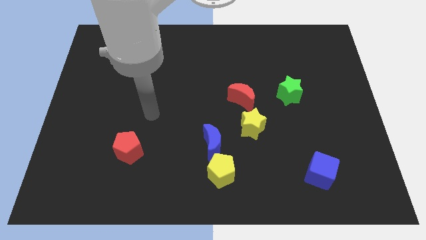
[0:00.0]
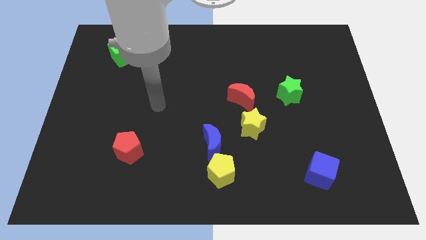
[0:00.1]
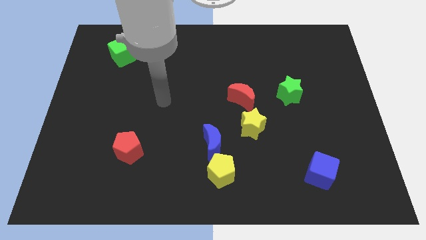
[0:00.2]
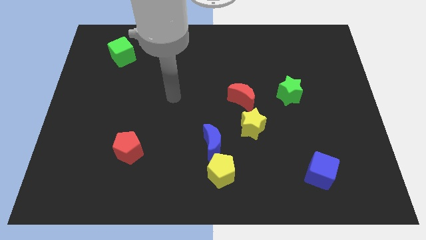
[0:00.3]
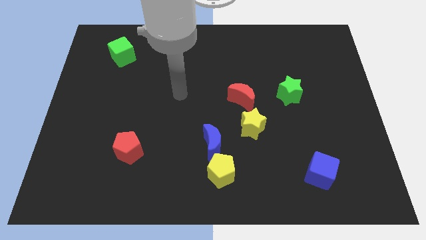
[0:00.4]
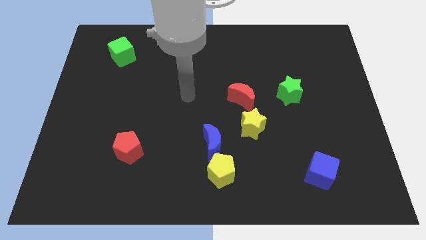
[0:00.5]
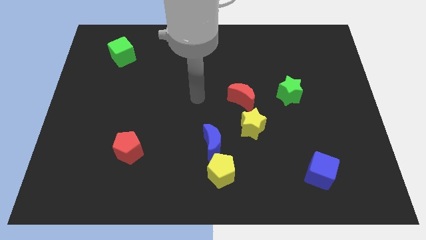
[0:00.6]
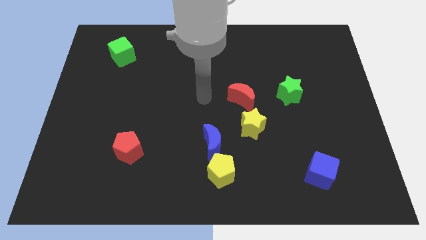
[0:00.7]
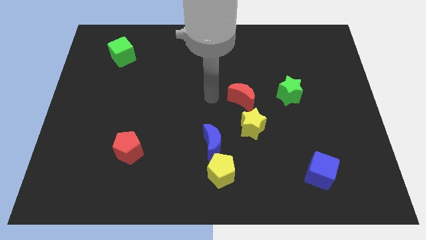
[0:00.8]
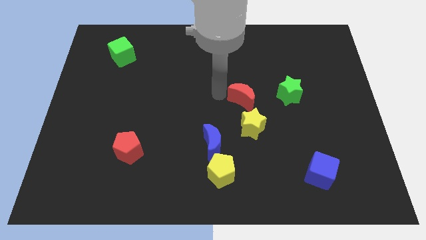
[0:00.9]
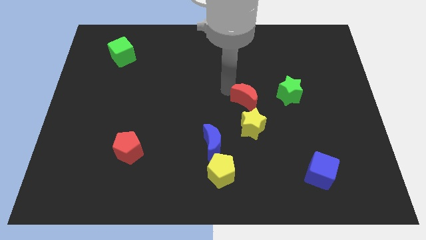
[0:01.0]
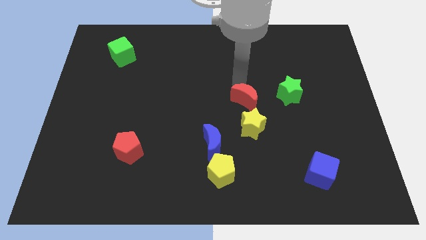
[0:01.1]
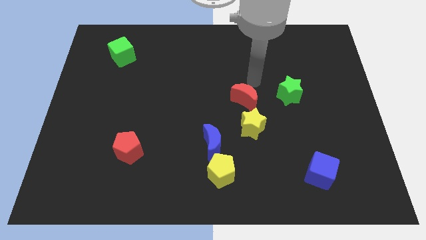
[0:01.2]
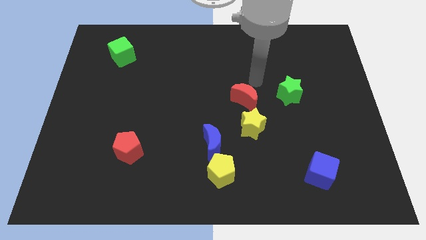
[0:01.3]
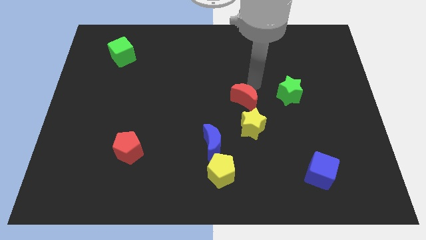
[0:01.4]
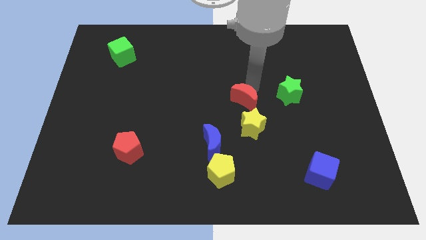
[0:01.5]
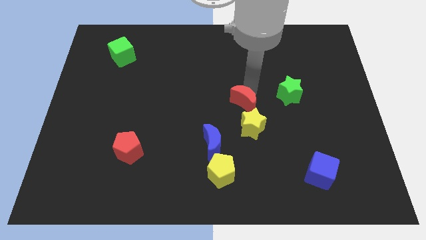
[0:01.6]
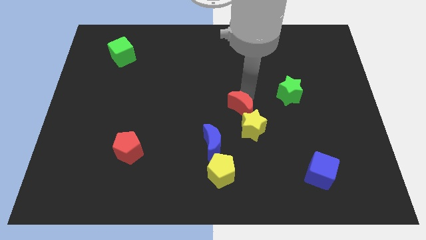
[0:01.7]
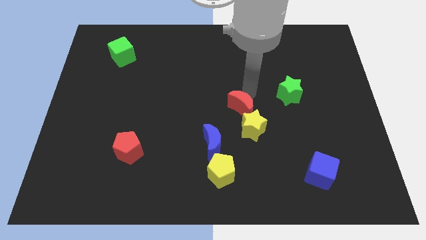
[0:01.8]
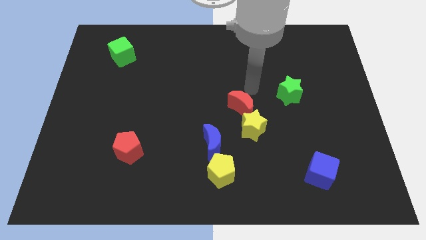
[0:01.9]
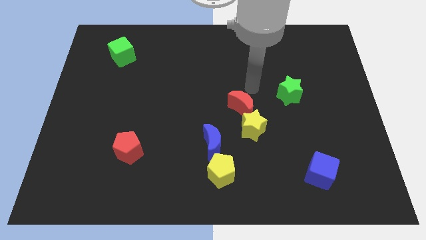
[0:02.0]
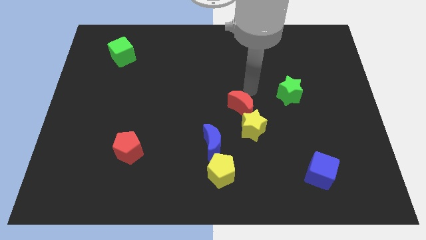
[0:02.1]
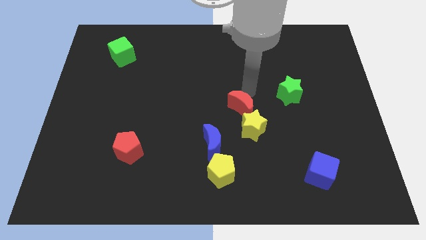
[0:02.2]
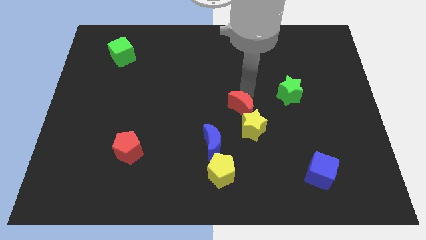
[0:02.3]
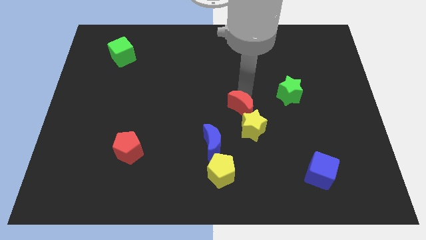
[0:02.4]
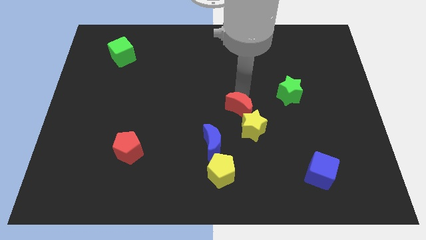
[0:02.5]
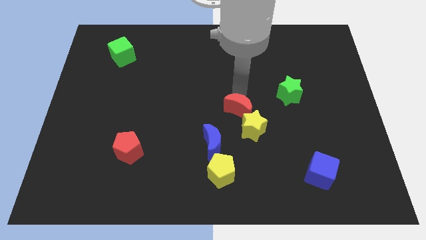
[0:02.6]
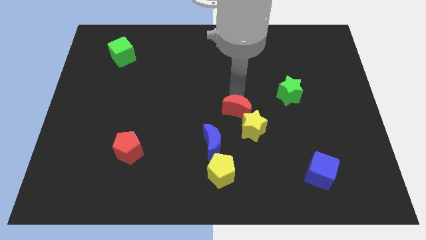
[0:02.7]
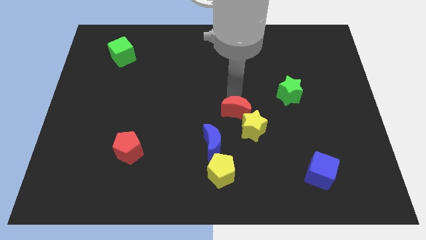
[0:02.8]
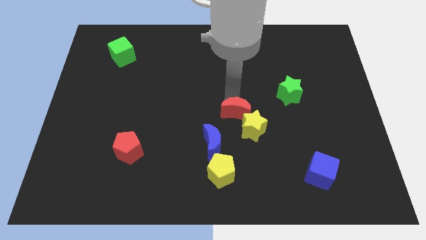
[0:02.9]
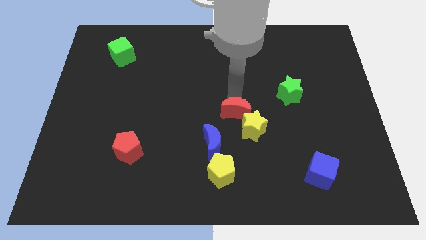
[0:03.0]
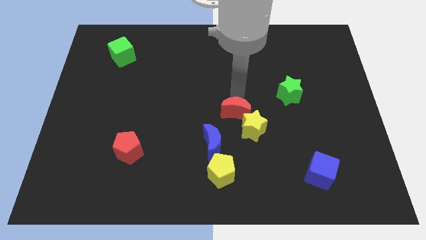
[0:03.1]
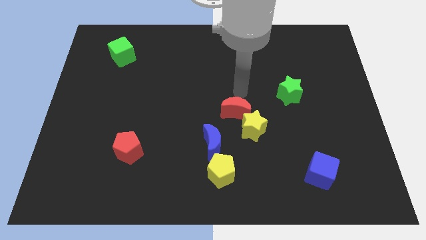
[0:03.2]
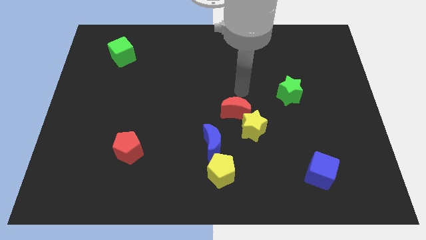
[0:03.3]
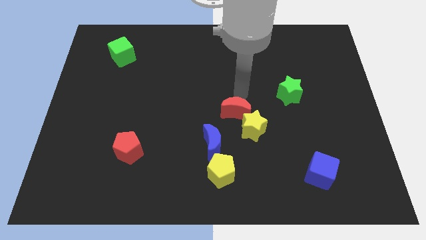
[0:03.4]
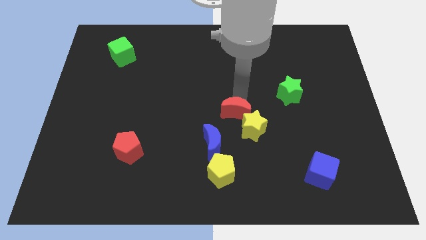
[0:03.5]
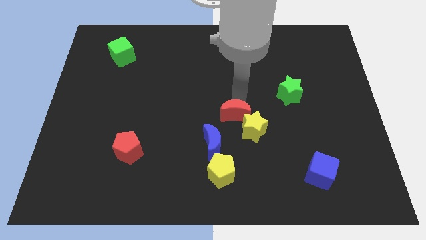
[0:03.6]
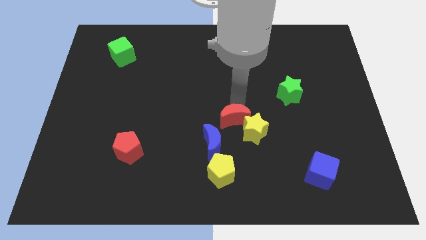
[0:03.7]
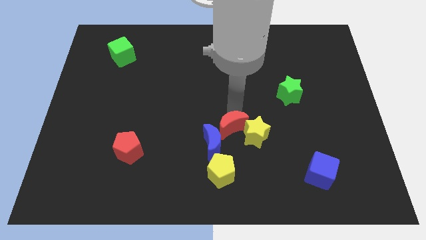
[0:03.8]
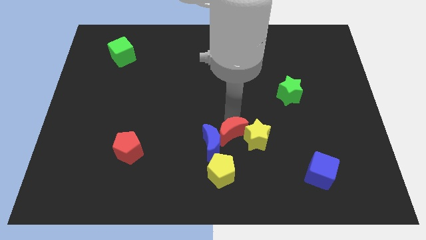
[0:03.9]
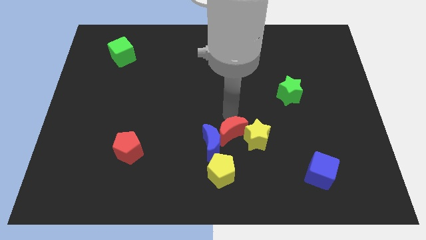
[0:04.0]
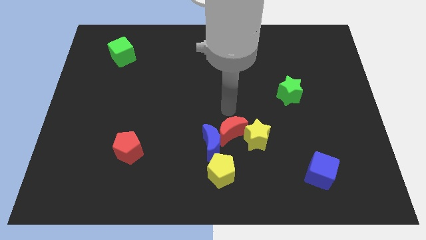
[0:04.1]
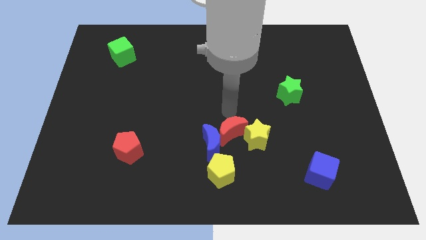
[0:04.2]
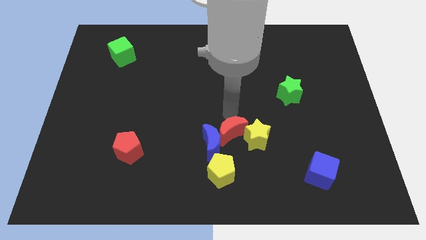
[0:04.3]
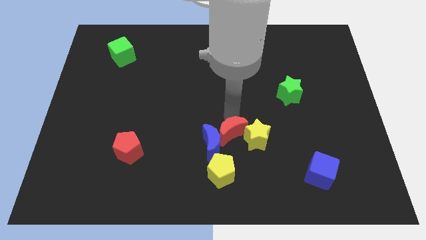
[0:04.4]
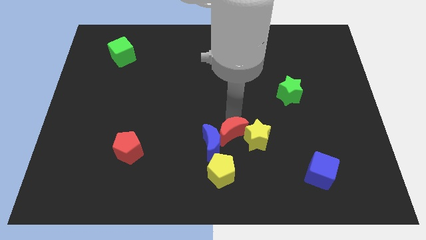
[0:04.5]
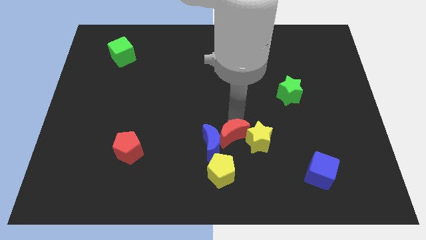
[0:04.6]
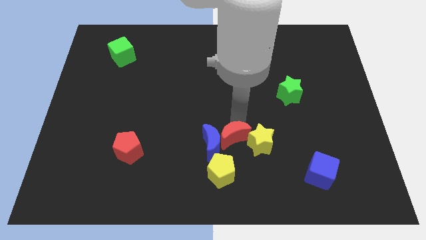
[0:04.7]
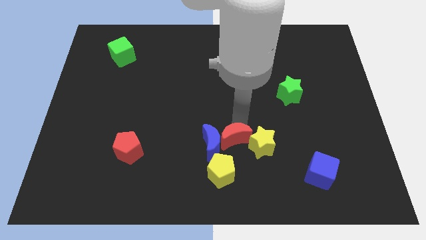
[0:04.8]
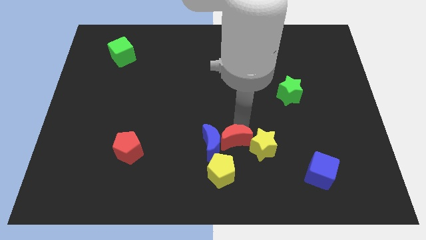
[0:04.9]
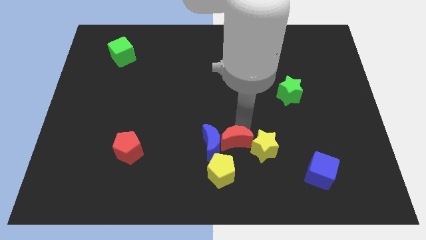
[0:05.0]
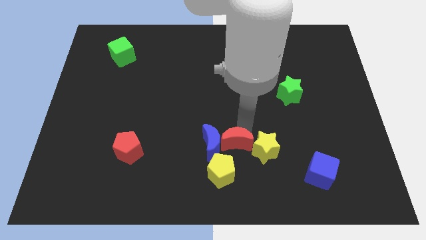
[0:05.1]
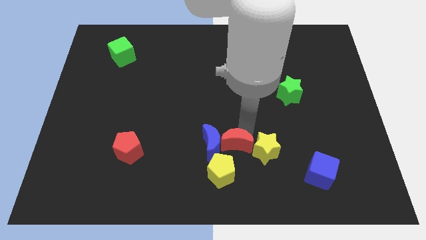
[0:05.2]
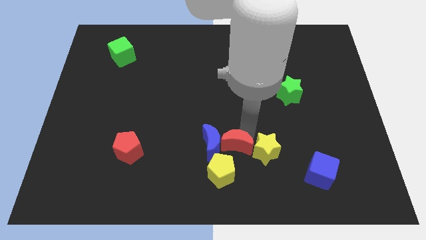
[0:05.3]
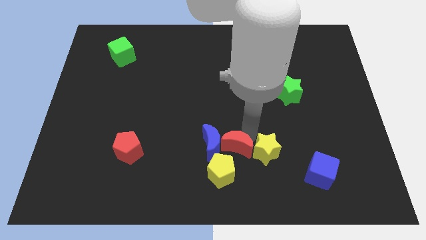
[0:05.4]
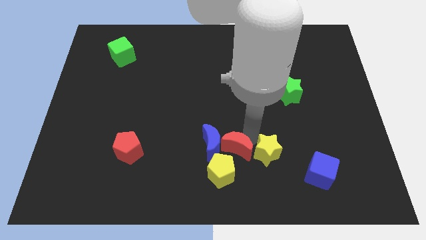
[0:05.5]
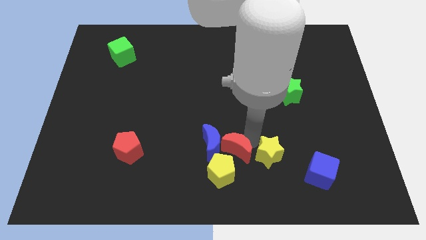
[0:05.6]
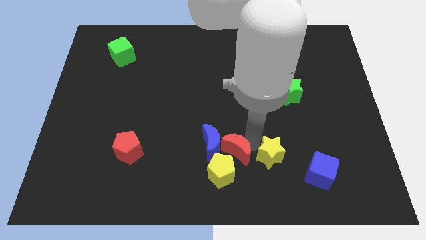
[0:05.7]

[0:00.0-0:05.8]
push the red moon next to the yellow pentagon

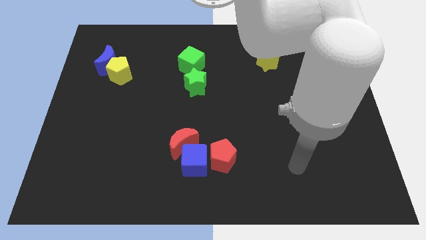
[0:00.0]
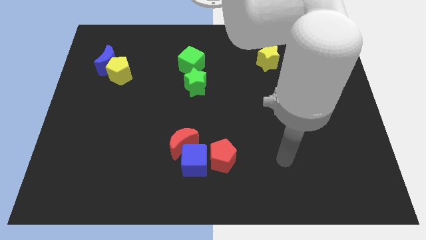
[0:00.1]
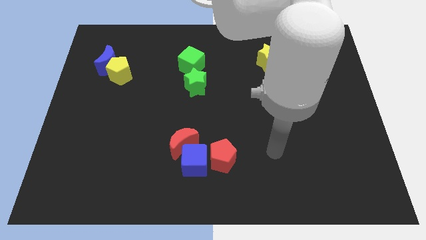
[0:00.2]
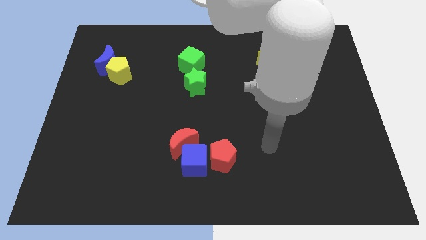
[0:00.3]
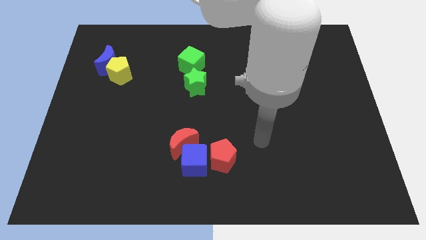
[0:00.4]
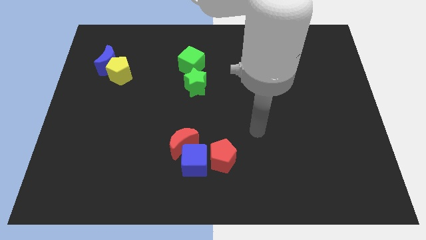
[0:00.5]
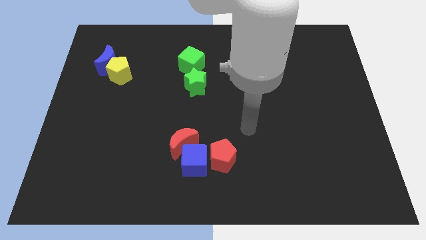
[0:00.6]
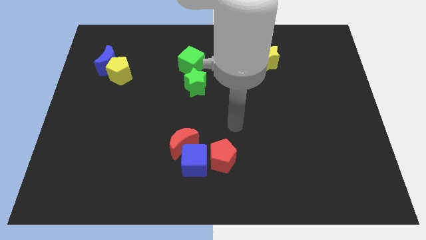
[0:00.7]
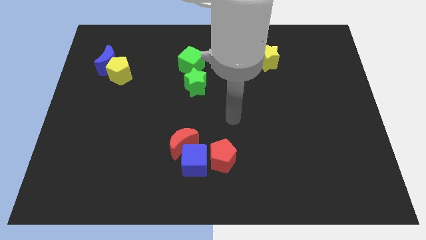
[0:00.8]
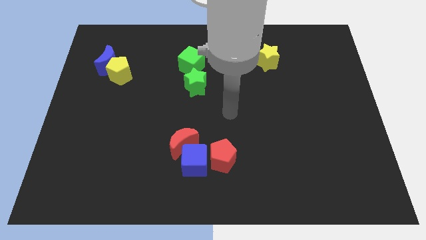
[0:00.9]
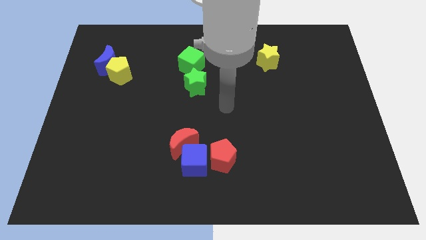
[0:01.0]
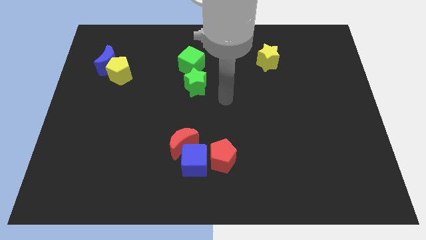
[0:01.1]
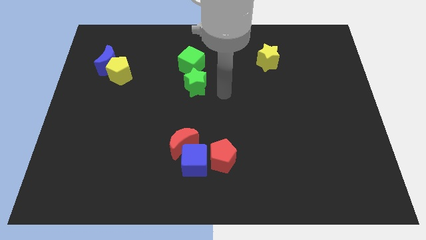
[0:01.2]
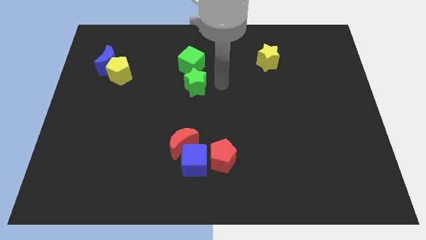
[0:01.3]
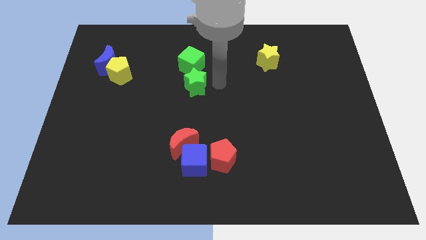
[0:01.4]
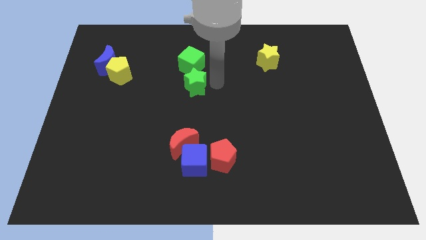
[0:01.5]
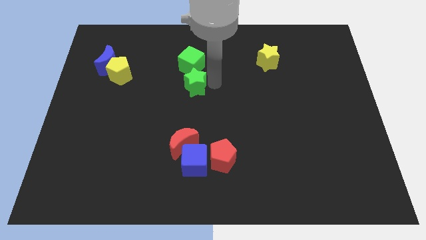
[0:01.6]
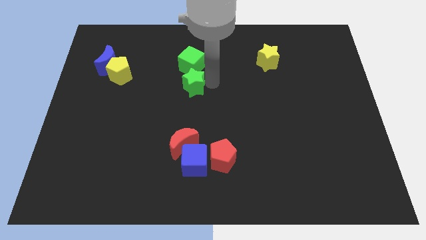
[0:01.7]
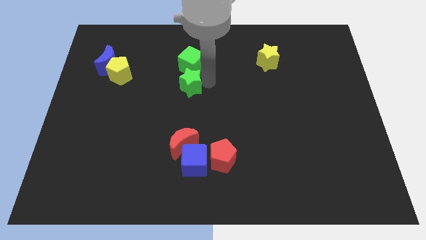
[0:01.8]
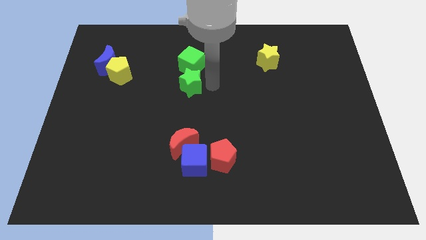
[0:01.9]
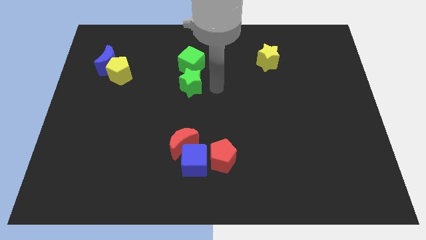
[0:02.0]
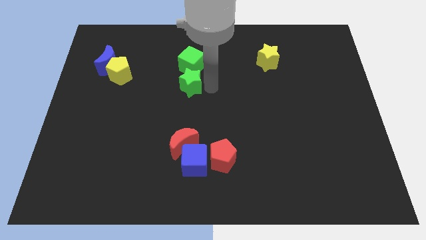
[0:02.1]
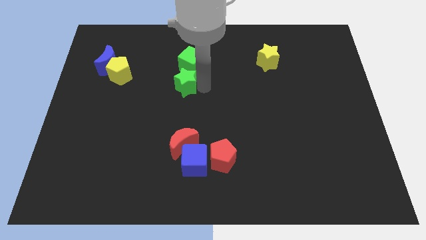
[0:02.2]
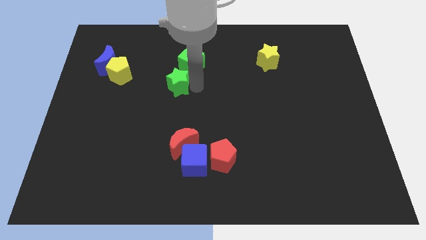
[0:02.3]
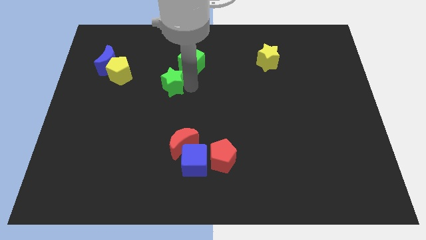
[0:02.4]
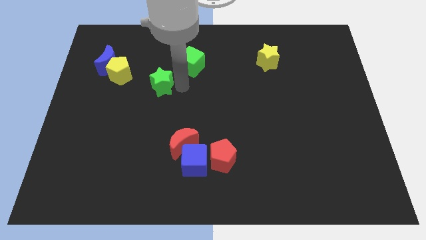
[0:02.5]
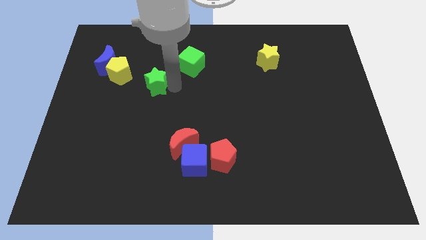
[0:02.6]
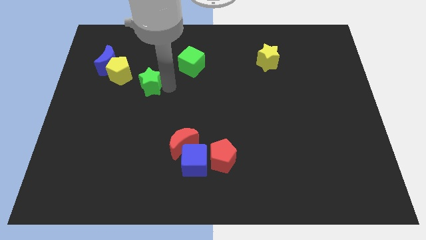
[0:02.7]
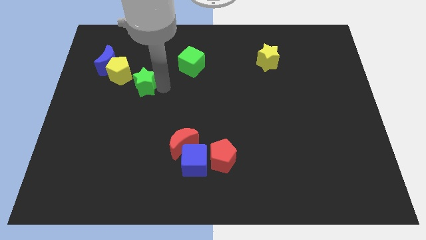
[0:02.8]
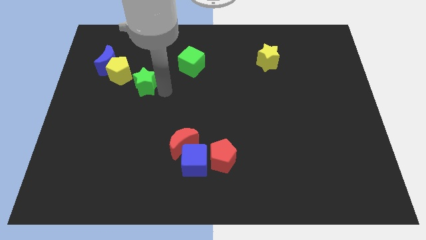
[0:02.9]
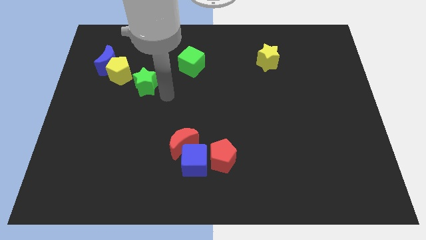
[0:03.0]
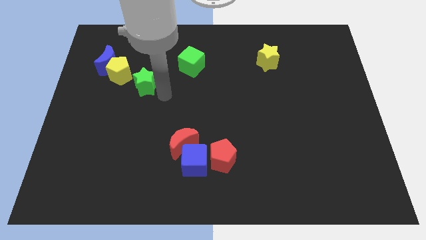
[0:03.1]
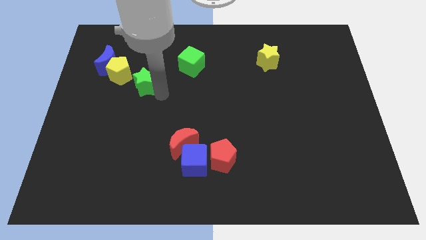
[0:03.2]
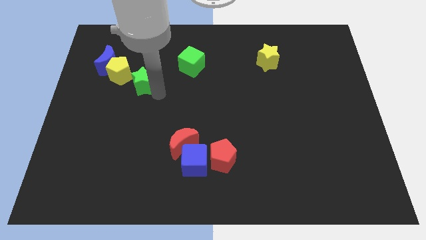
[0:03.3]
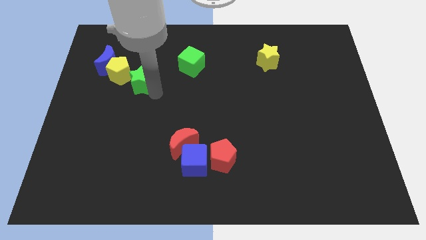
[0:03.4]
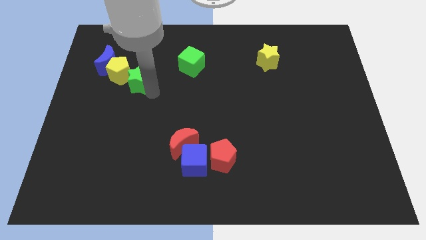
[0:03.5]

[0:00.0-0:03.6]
put the green star next to the yellow pentagon
